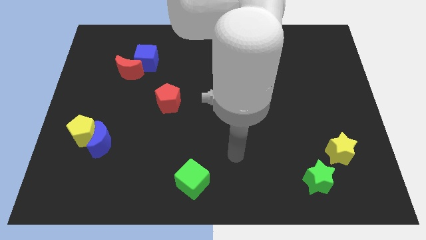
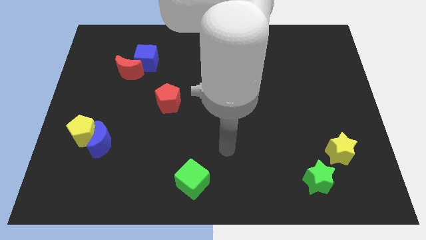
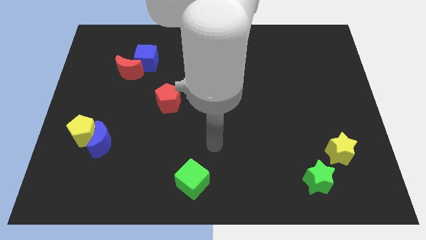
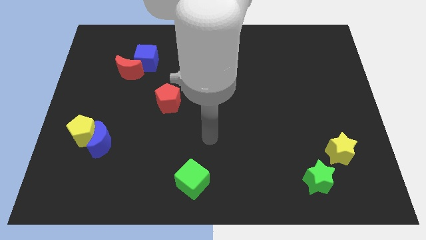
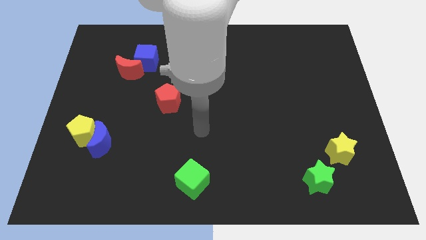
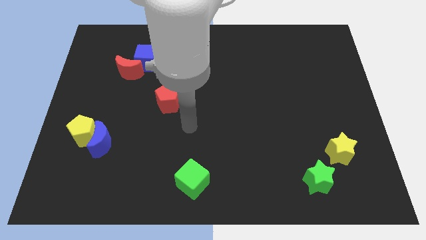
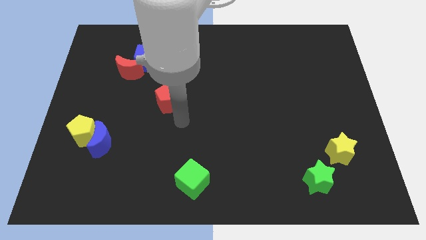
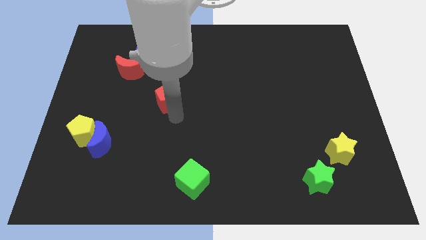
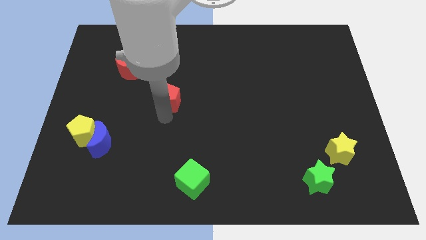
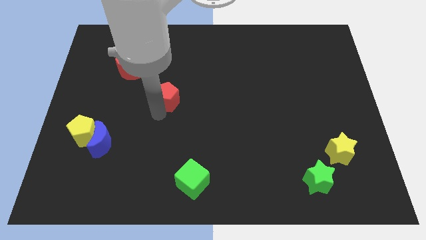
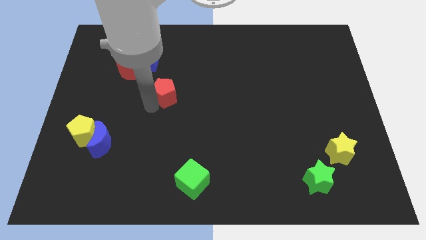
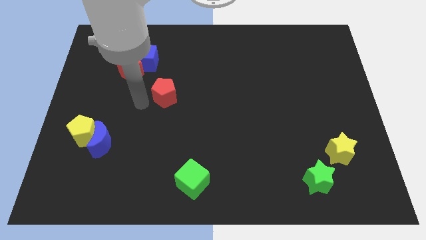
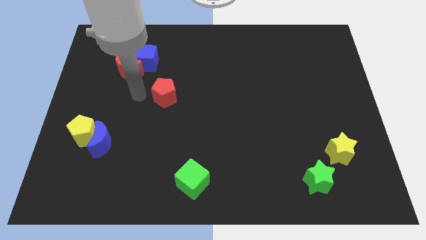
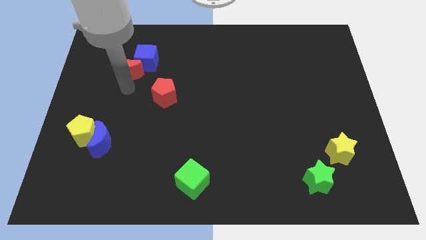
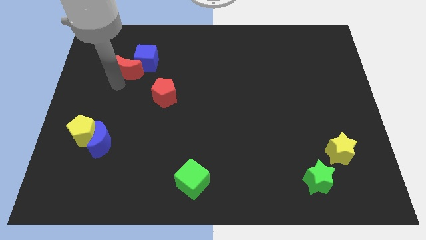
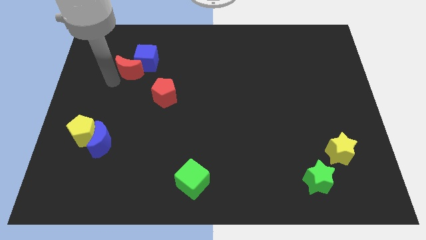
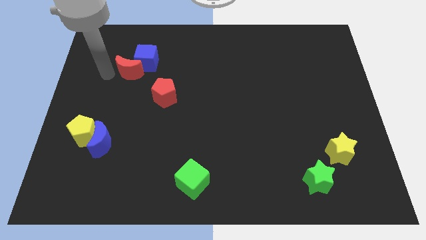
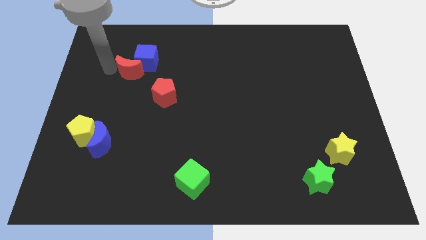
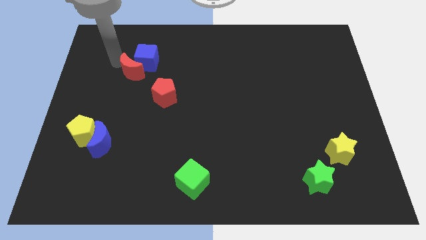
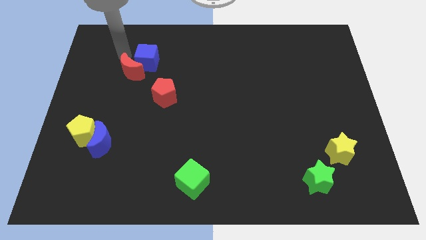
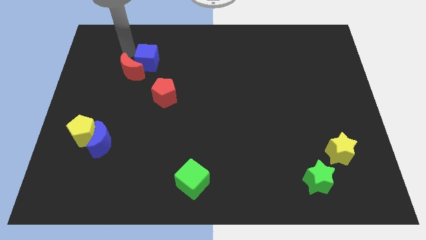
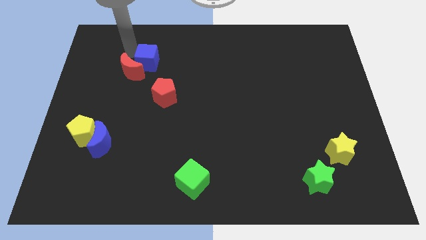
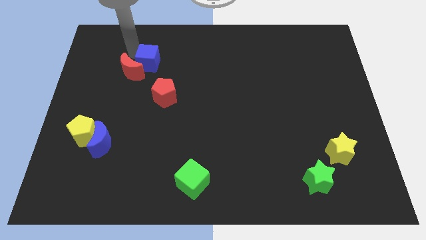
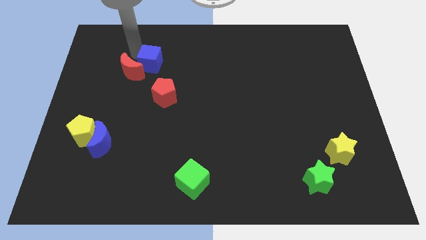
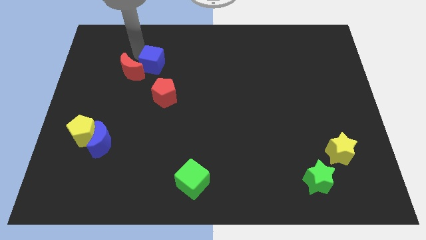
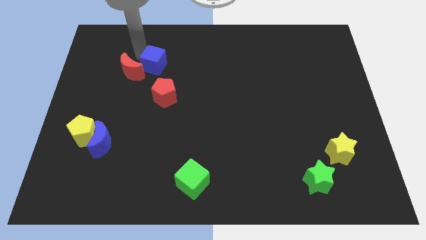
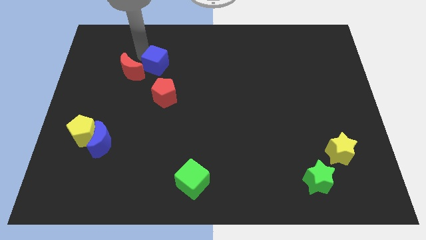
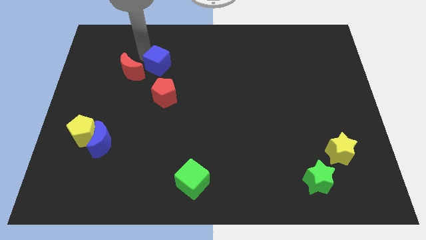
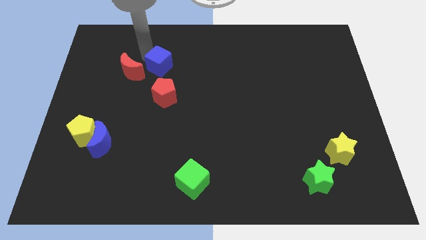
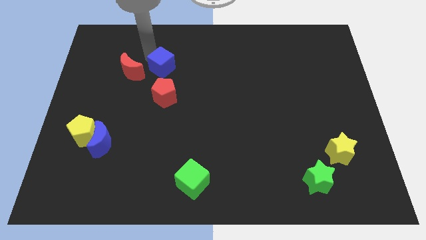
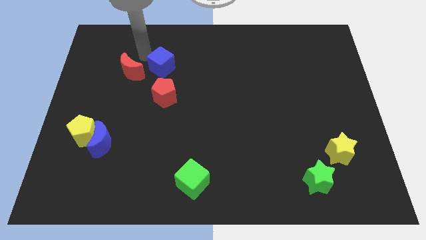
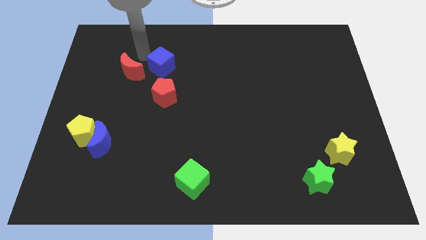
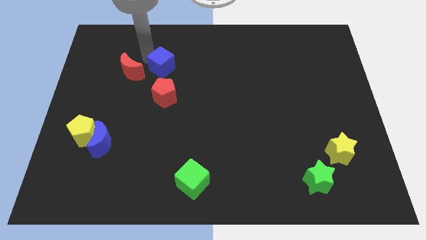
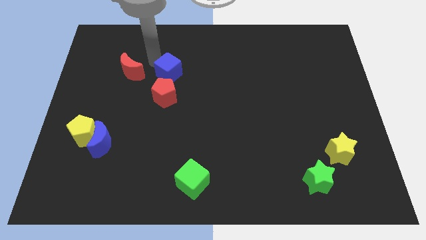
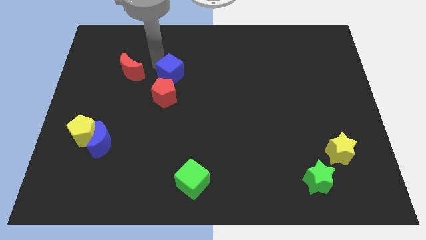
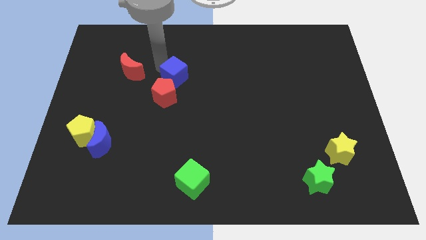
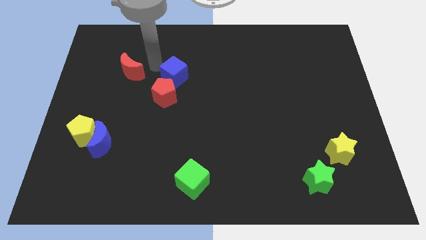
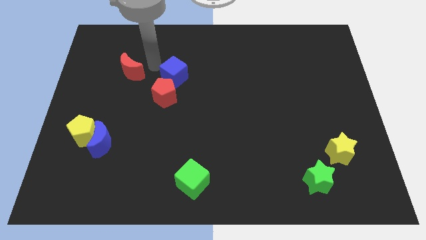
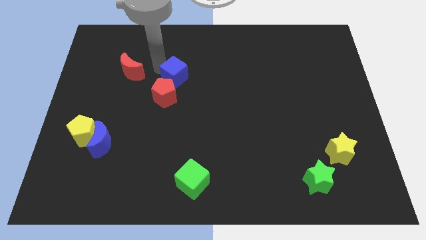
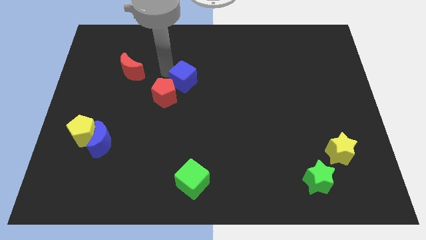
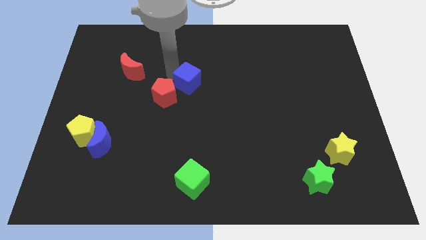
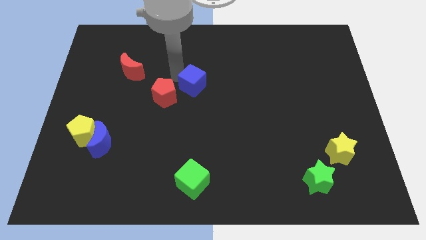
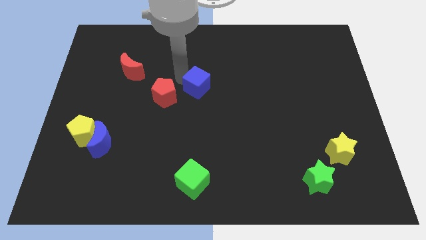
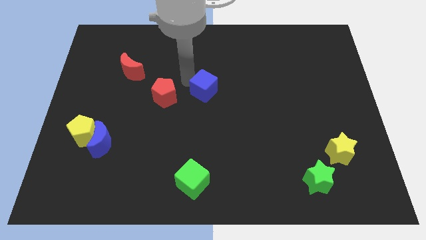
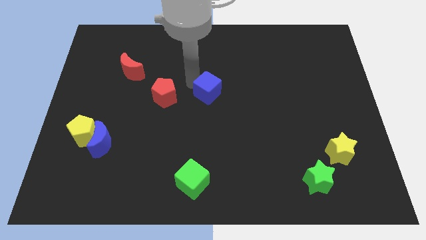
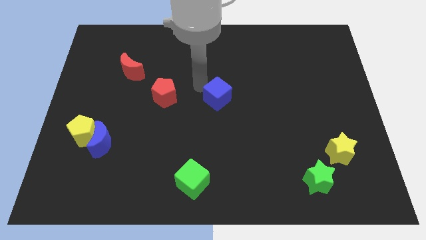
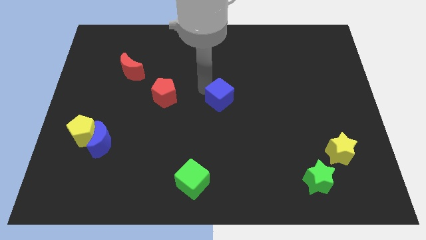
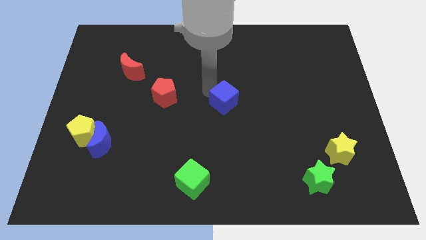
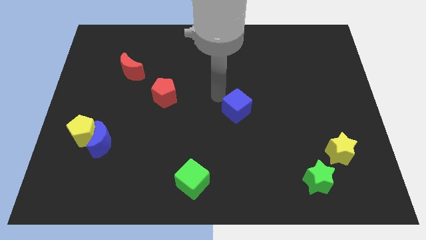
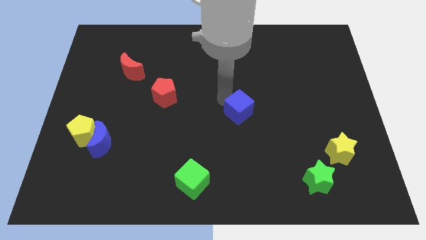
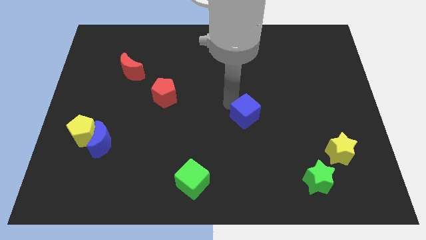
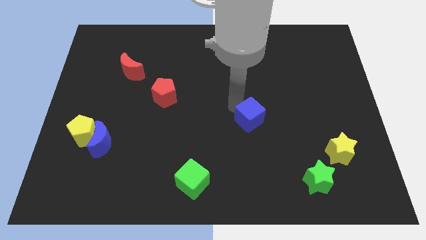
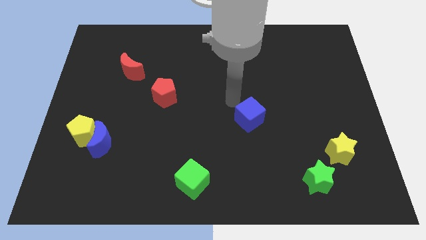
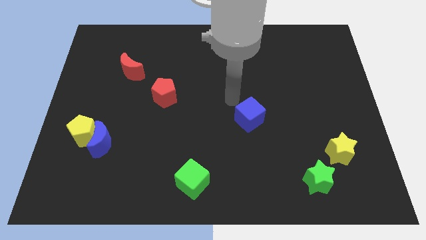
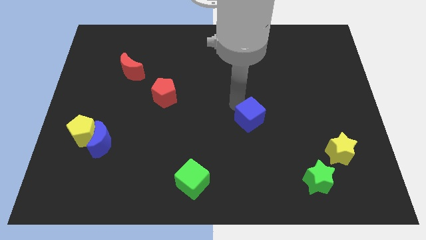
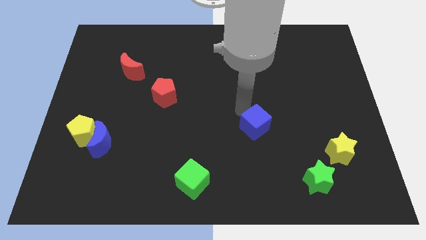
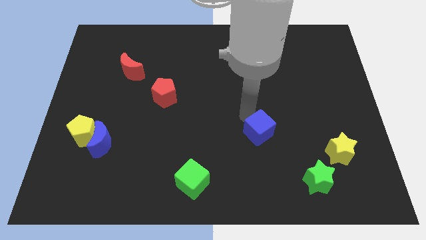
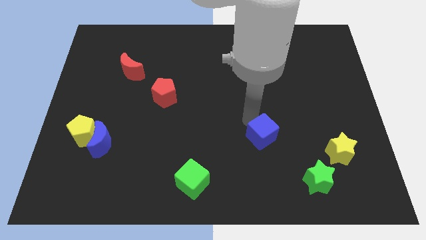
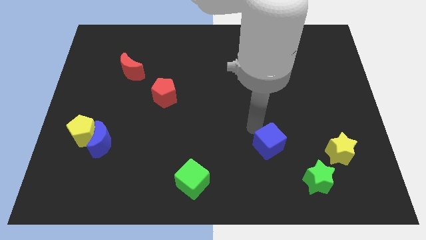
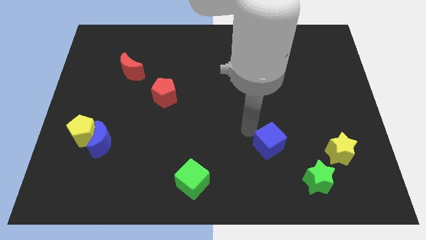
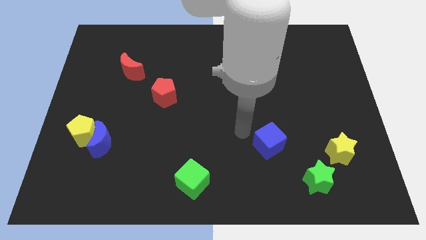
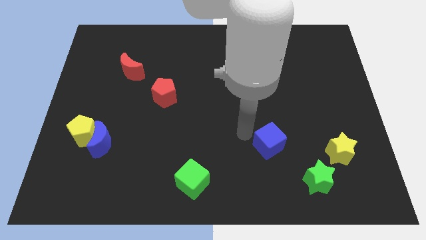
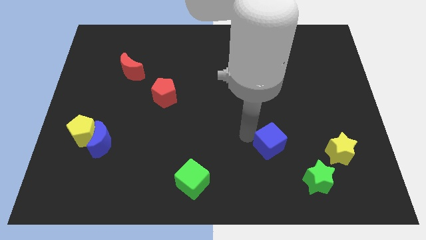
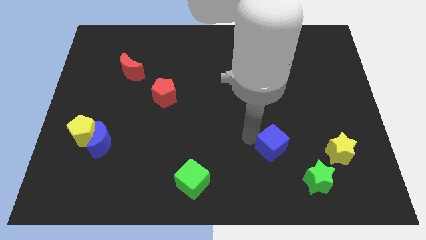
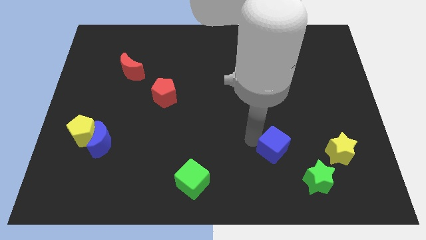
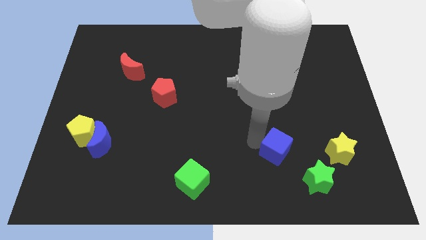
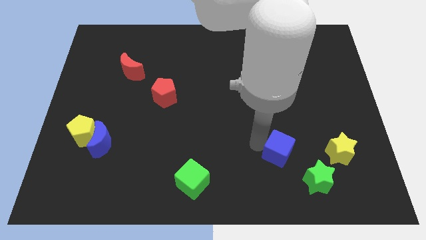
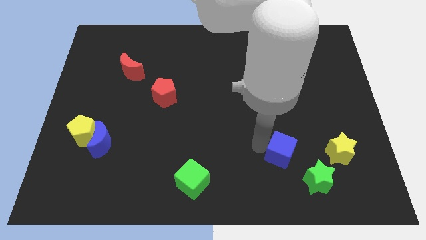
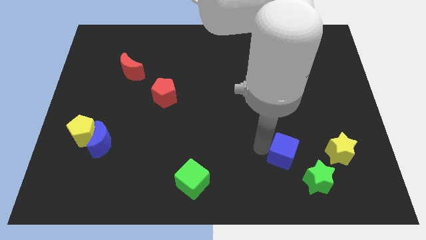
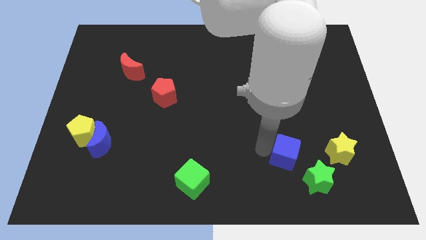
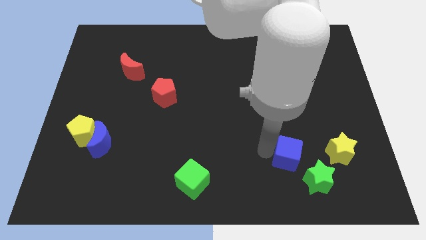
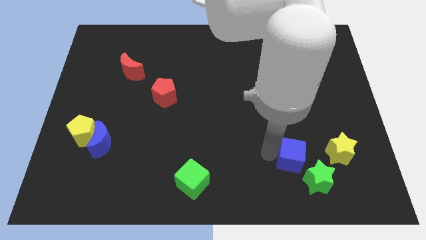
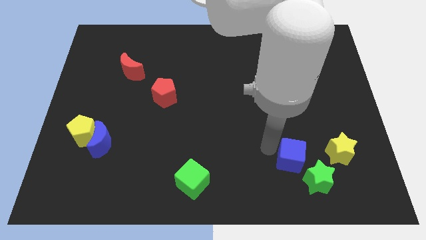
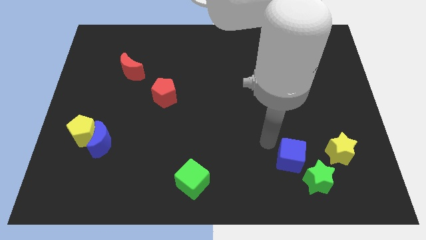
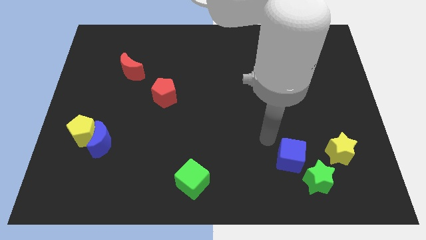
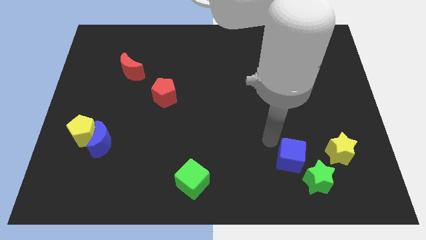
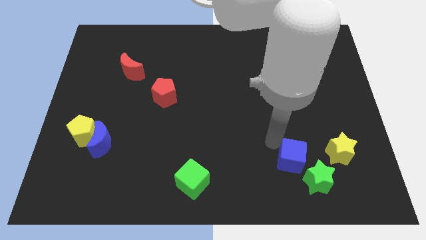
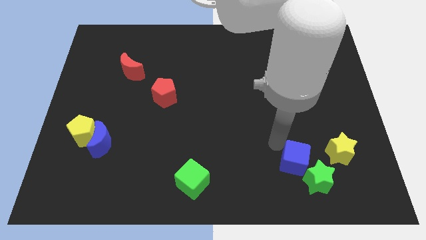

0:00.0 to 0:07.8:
slide the blue cube to the green star

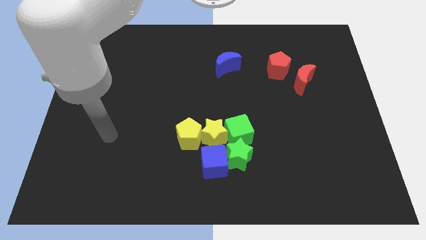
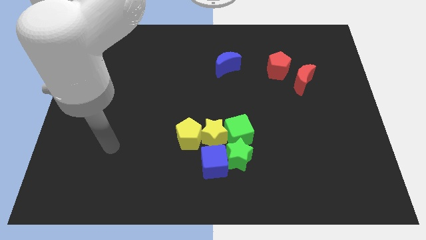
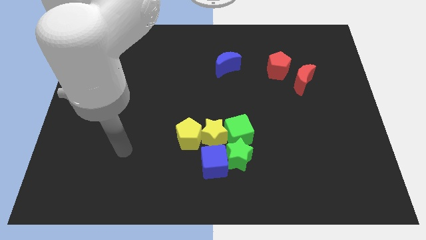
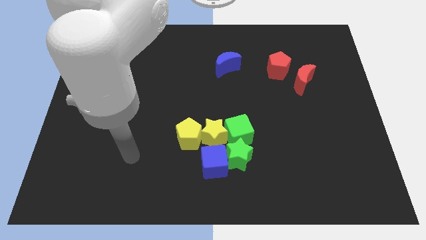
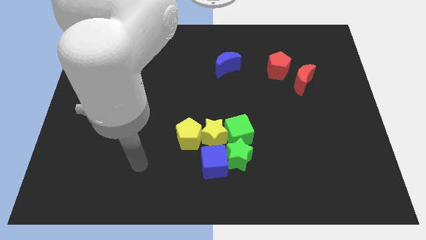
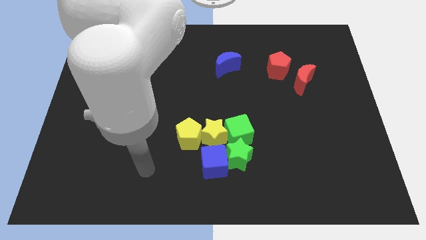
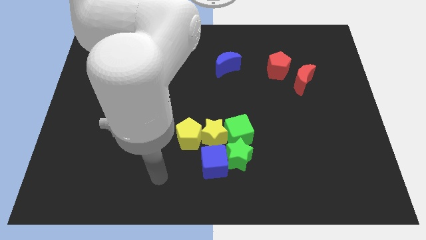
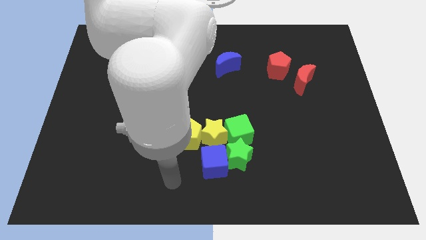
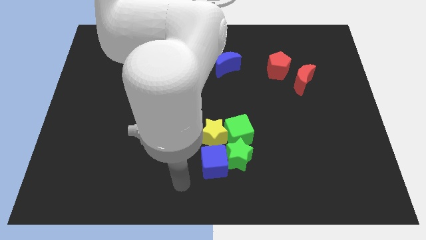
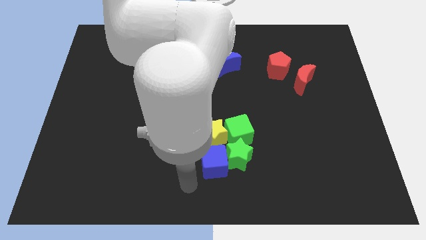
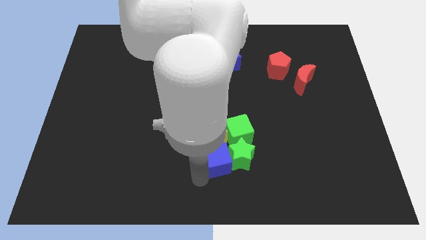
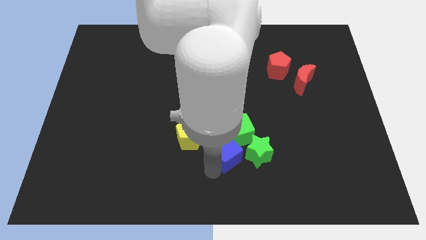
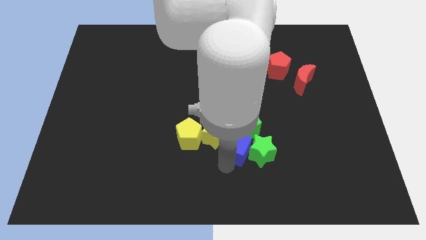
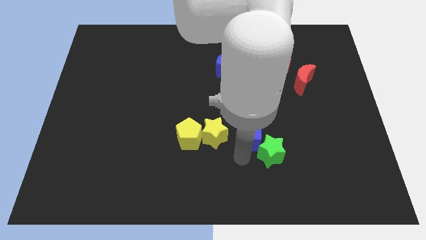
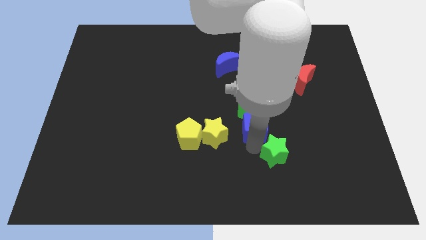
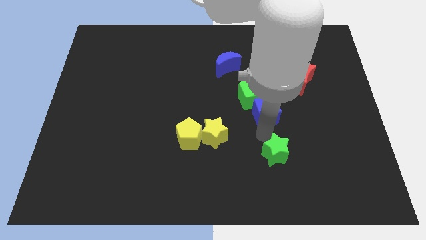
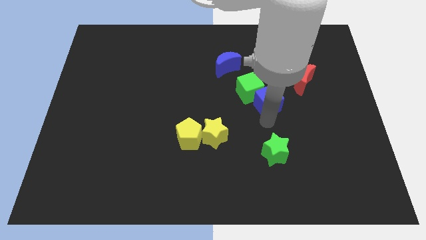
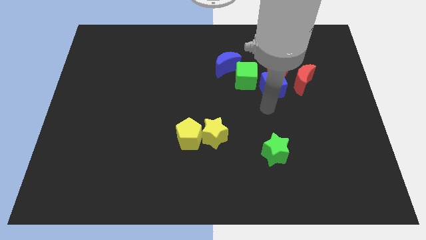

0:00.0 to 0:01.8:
put the green cube towards the blue moon
